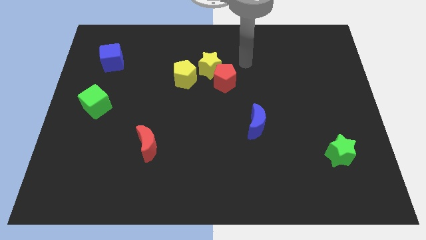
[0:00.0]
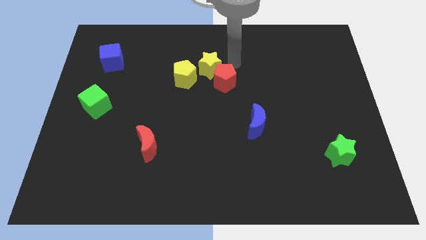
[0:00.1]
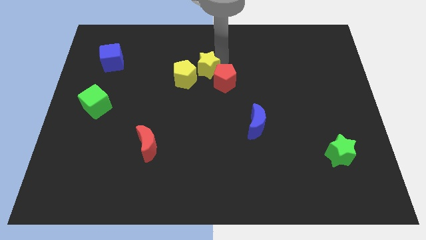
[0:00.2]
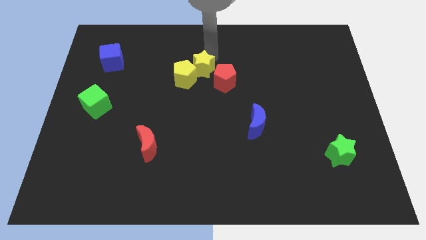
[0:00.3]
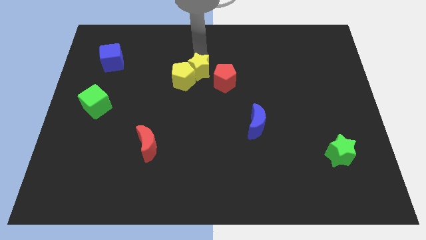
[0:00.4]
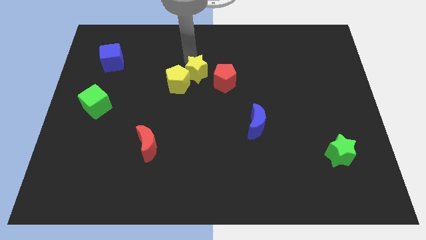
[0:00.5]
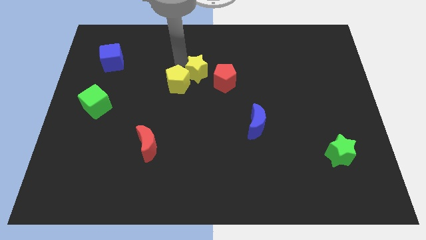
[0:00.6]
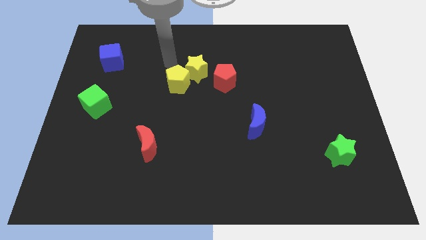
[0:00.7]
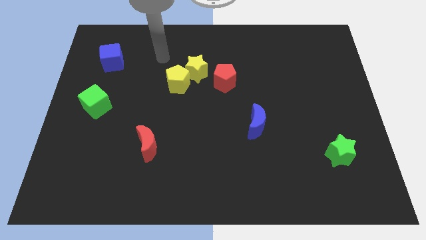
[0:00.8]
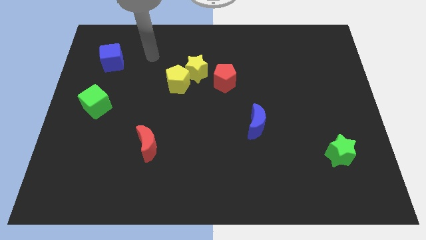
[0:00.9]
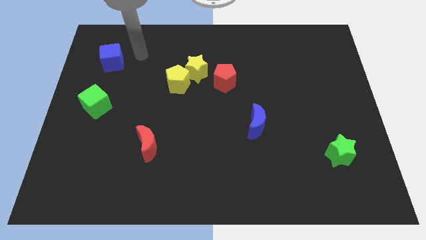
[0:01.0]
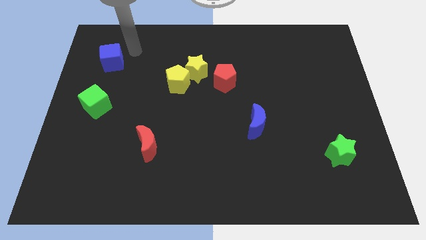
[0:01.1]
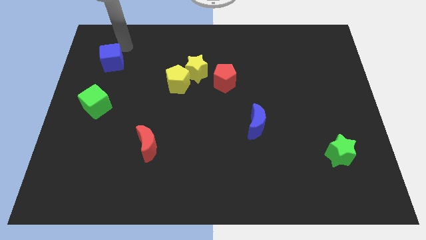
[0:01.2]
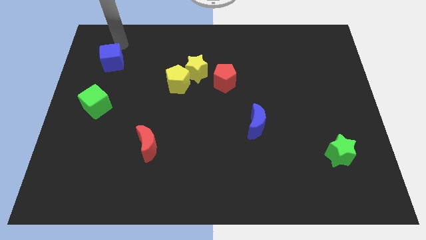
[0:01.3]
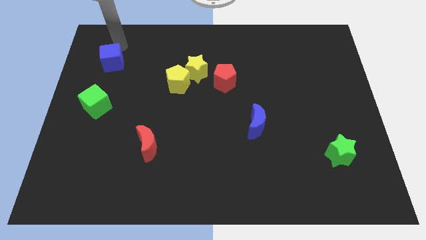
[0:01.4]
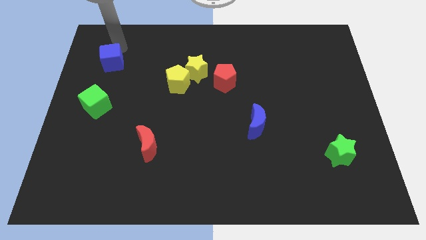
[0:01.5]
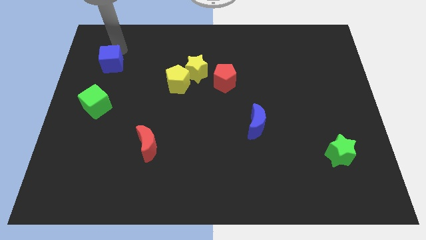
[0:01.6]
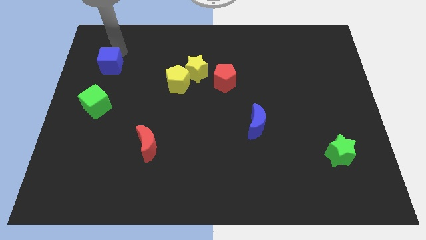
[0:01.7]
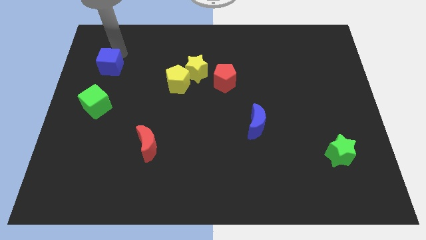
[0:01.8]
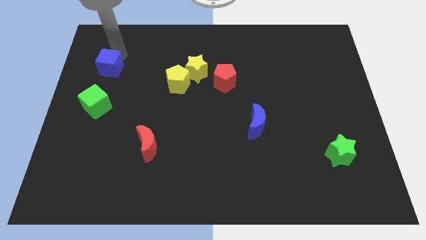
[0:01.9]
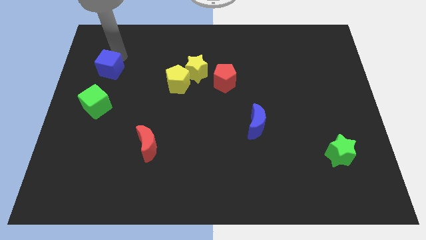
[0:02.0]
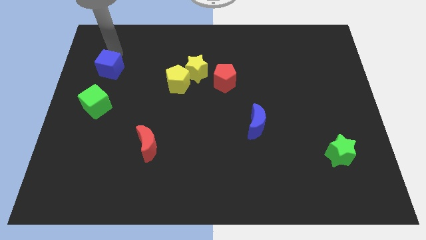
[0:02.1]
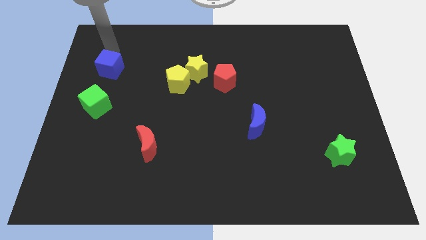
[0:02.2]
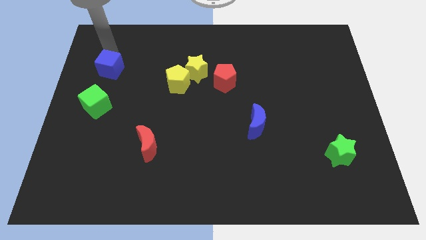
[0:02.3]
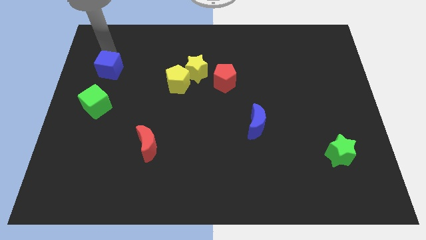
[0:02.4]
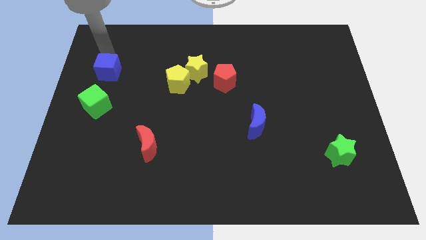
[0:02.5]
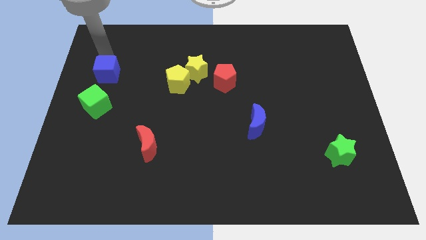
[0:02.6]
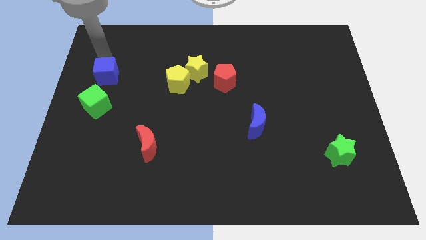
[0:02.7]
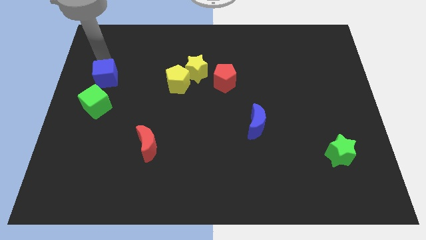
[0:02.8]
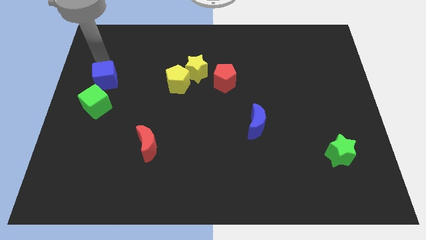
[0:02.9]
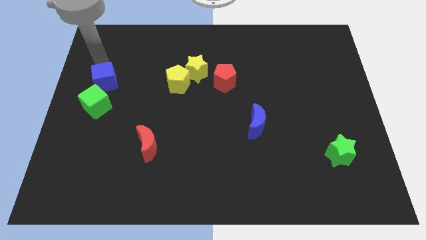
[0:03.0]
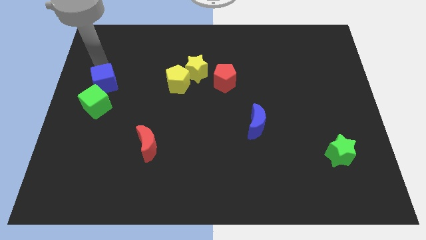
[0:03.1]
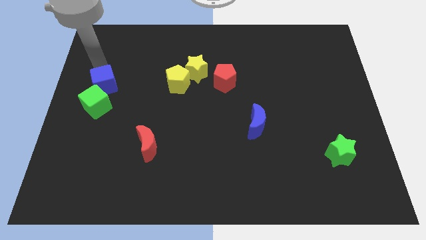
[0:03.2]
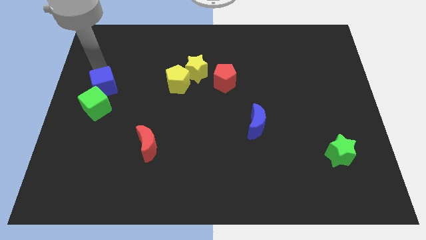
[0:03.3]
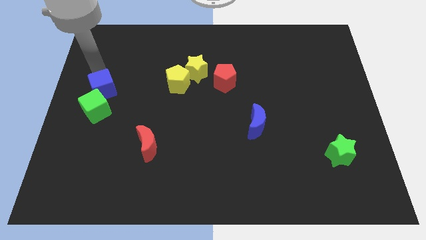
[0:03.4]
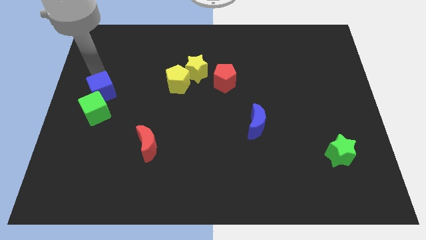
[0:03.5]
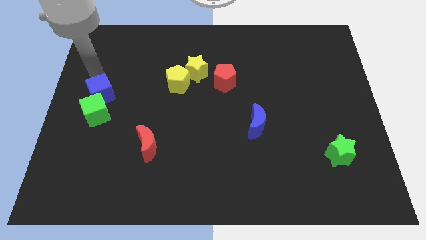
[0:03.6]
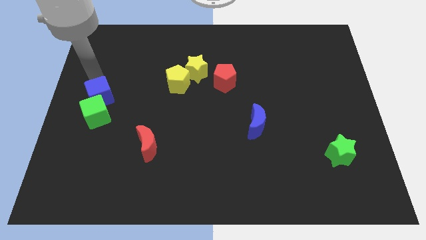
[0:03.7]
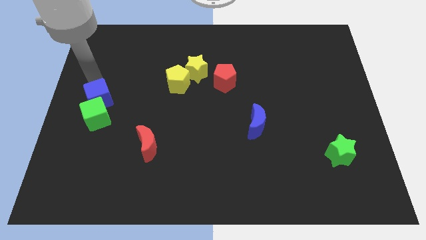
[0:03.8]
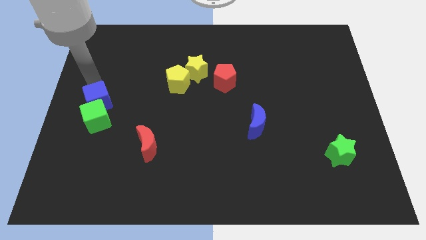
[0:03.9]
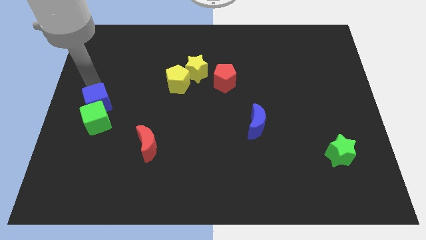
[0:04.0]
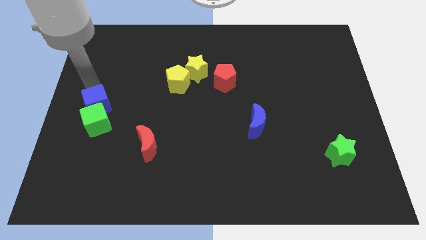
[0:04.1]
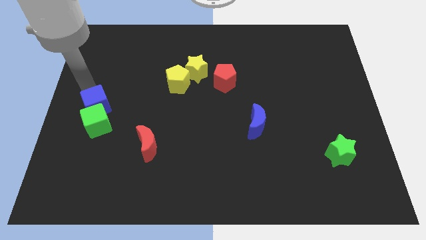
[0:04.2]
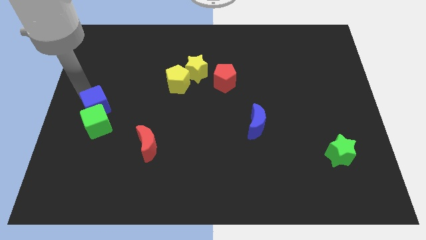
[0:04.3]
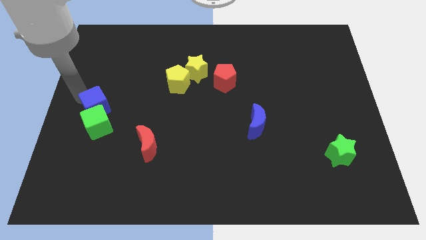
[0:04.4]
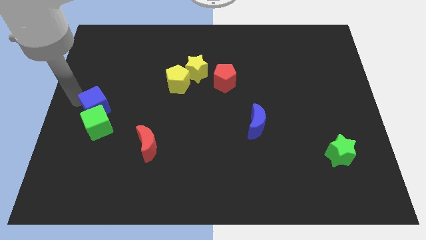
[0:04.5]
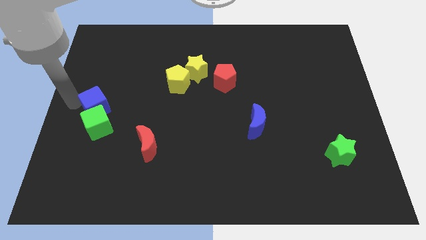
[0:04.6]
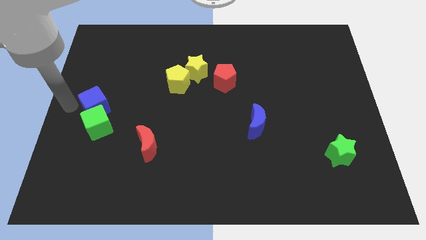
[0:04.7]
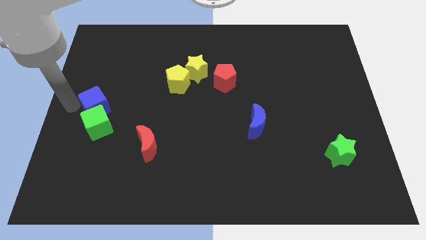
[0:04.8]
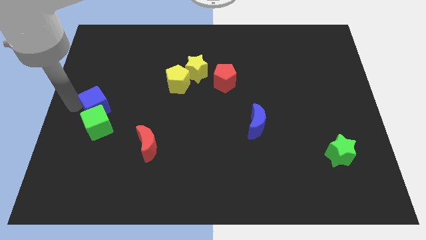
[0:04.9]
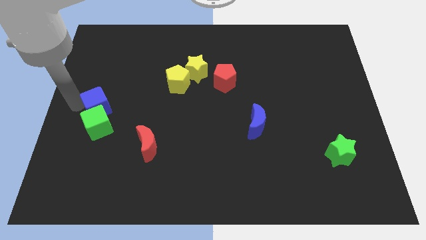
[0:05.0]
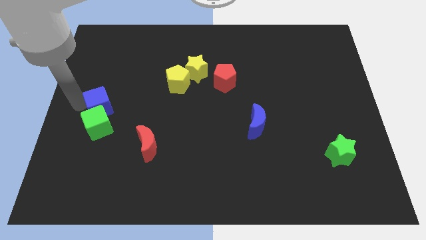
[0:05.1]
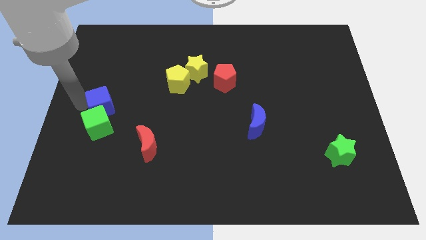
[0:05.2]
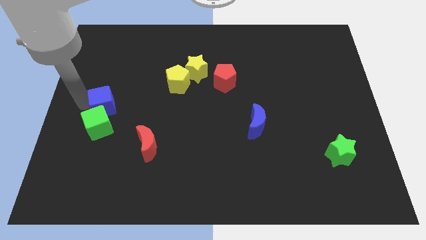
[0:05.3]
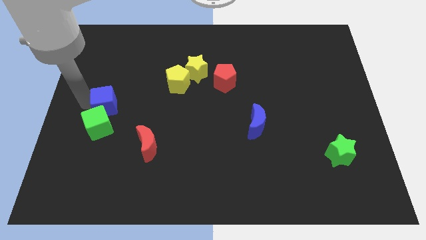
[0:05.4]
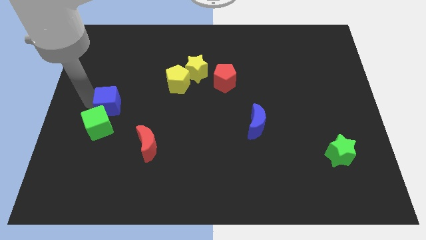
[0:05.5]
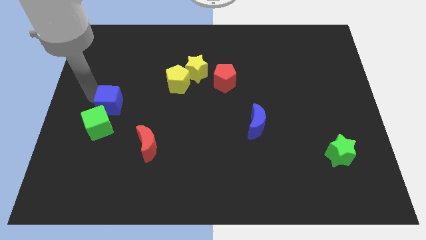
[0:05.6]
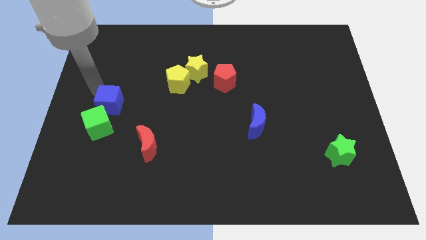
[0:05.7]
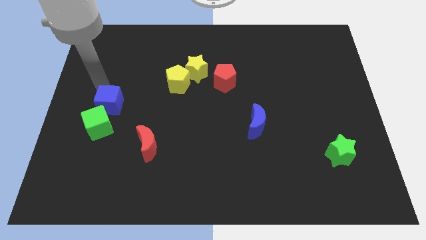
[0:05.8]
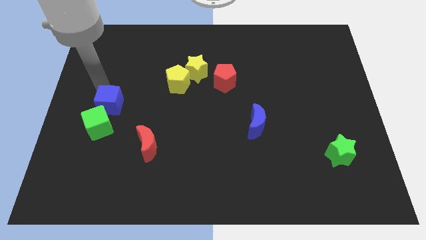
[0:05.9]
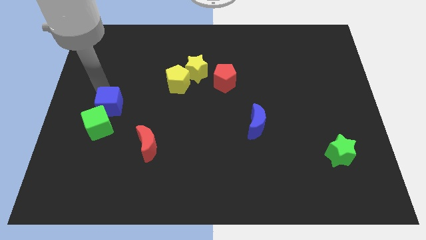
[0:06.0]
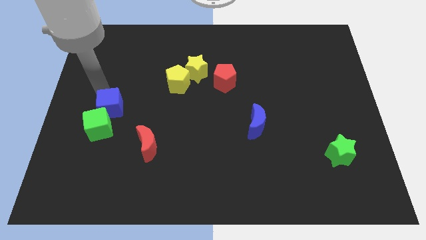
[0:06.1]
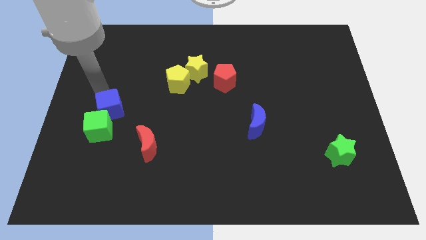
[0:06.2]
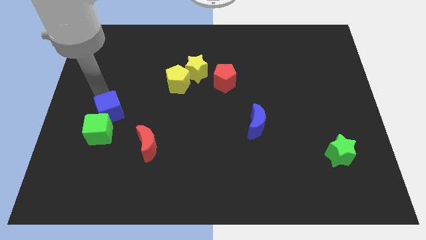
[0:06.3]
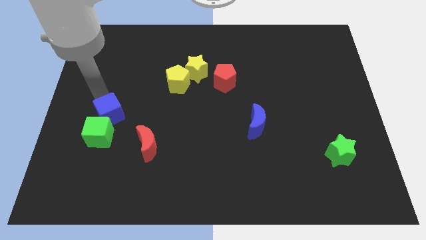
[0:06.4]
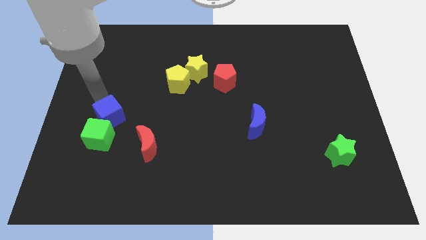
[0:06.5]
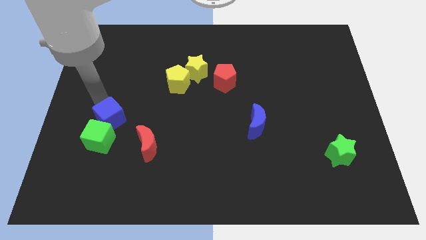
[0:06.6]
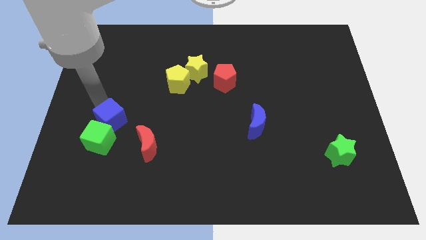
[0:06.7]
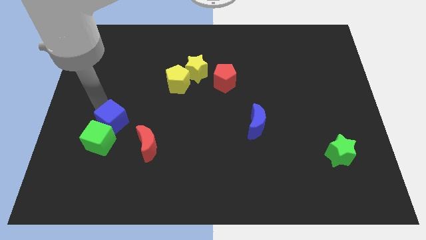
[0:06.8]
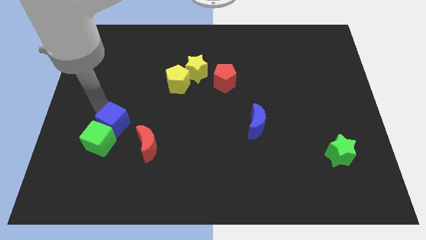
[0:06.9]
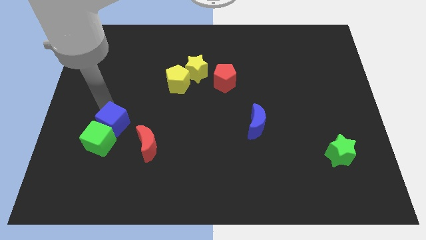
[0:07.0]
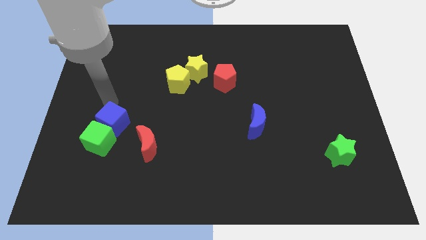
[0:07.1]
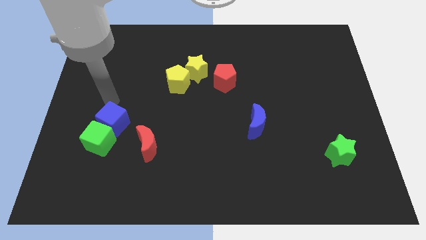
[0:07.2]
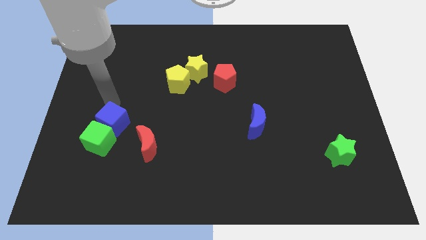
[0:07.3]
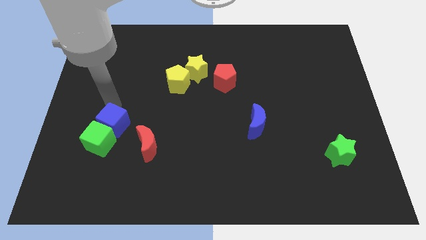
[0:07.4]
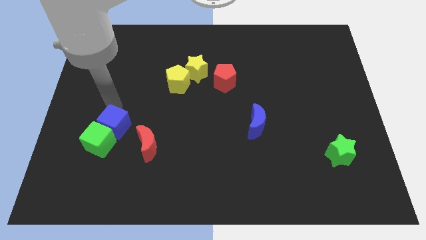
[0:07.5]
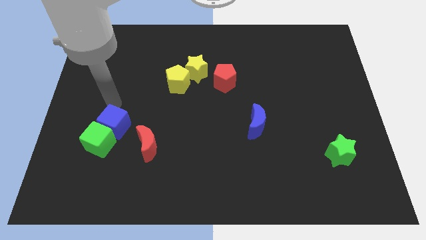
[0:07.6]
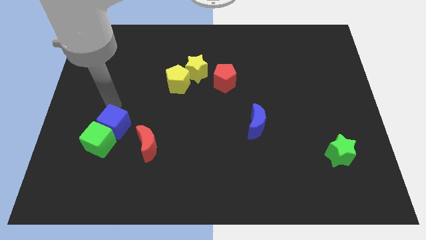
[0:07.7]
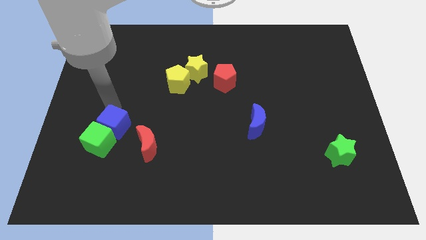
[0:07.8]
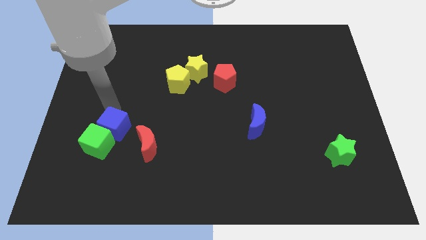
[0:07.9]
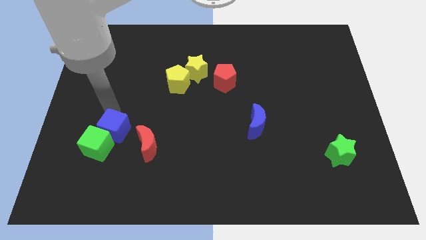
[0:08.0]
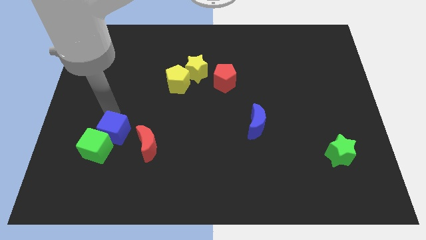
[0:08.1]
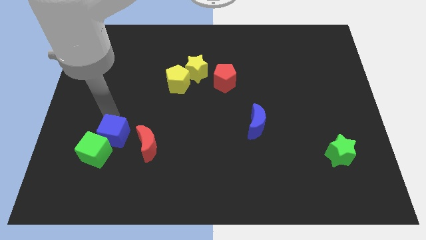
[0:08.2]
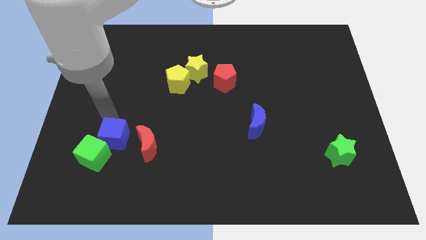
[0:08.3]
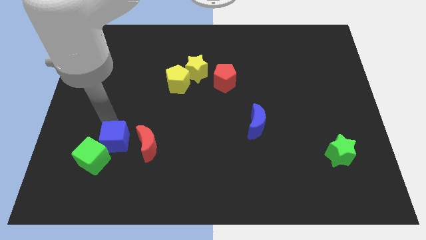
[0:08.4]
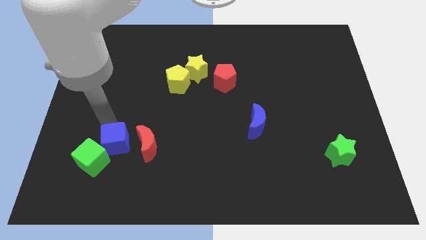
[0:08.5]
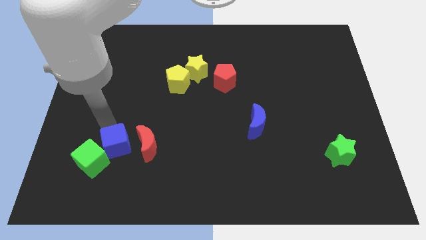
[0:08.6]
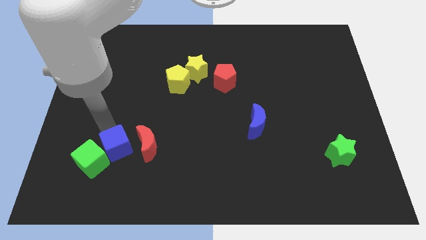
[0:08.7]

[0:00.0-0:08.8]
put the blue cube to the bottom left side of the red moon
